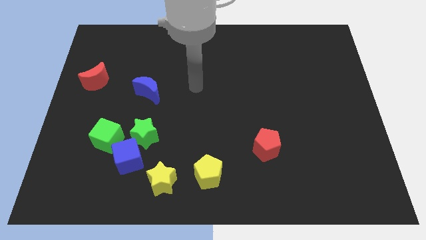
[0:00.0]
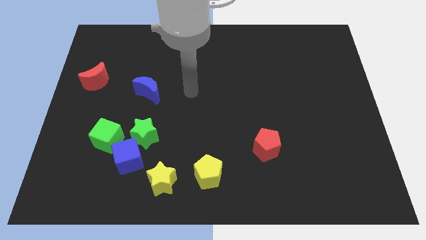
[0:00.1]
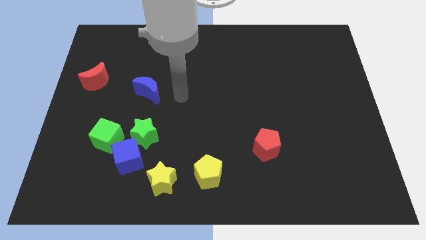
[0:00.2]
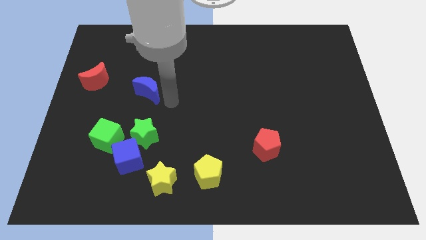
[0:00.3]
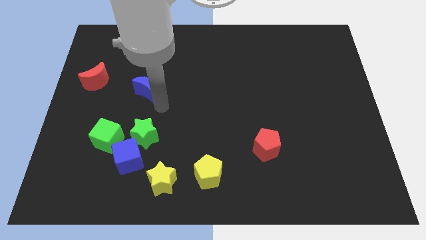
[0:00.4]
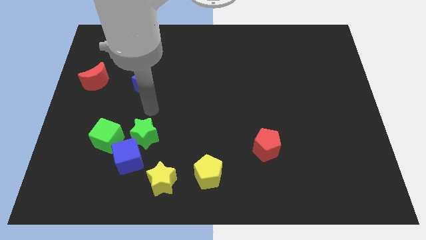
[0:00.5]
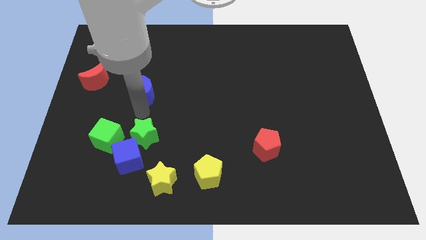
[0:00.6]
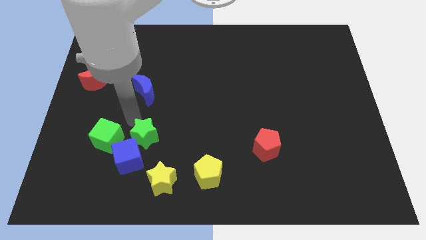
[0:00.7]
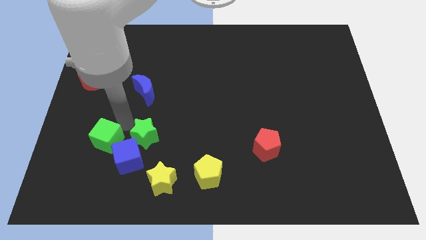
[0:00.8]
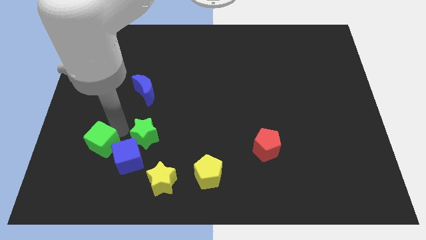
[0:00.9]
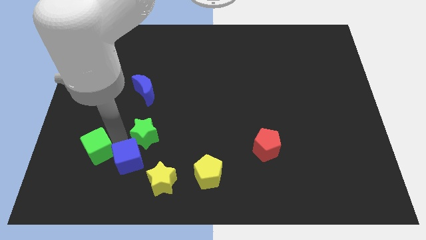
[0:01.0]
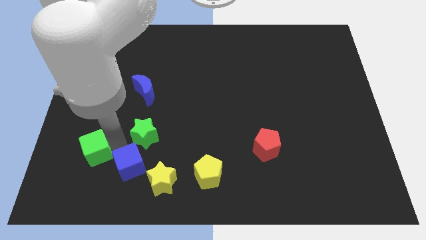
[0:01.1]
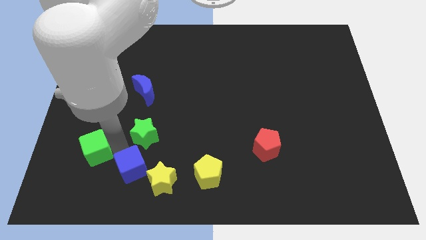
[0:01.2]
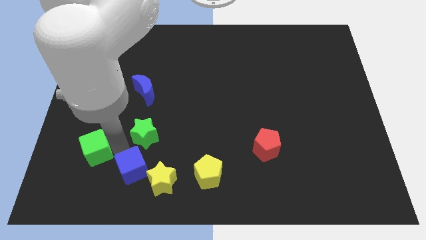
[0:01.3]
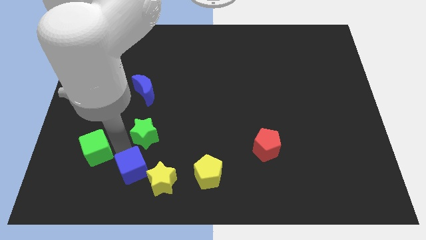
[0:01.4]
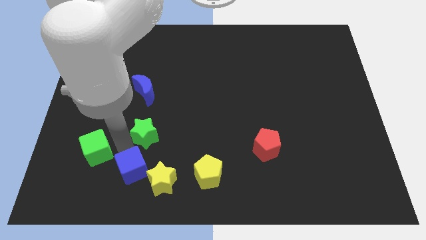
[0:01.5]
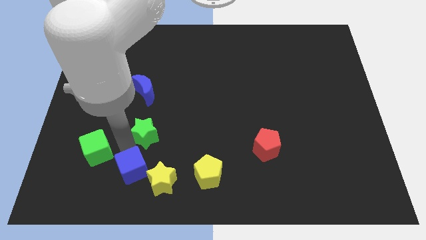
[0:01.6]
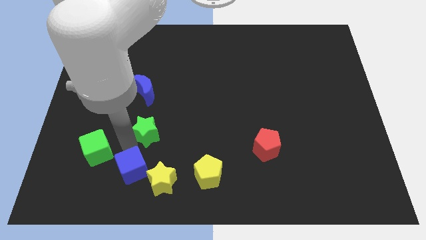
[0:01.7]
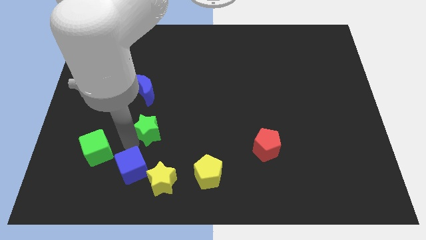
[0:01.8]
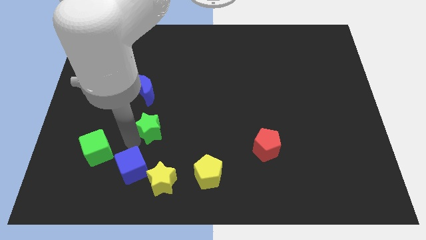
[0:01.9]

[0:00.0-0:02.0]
separate the green star from the blue cube and green cube

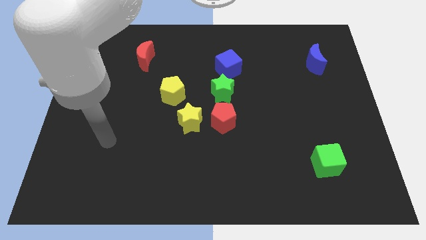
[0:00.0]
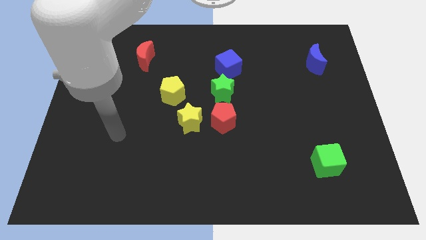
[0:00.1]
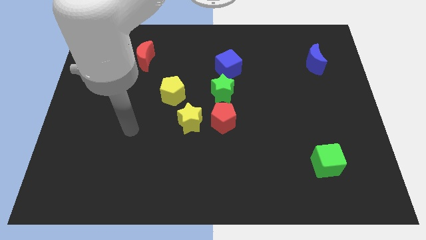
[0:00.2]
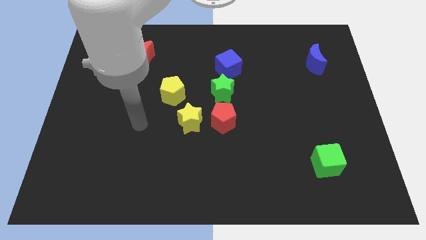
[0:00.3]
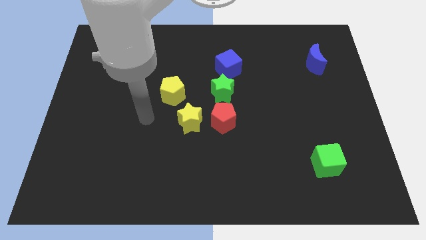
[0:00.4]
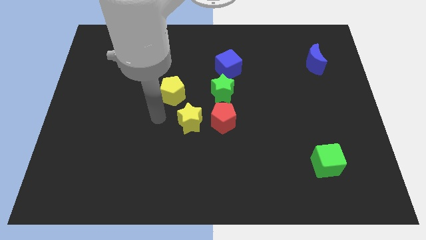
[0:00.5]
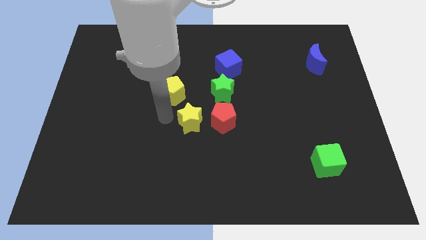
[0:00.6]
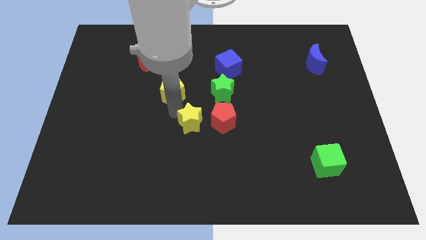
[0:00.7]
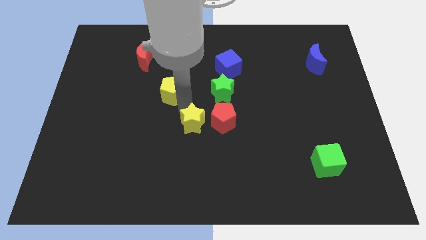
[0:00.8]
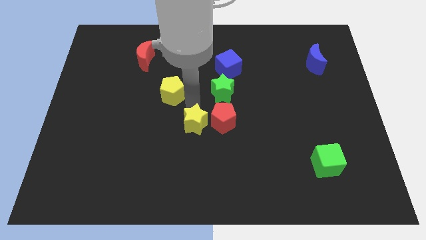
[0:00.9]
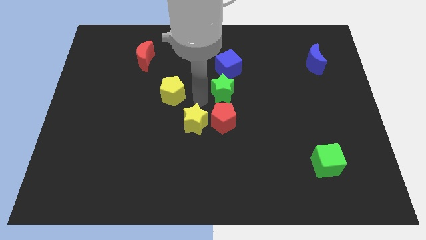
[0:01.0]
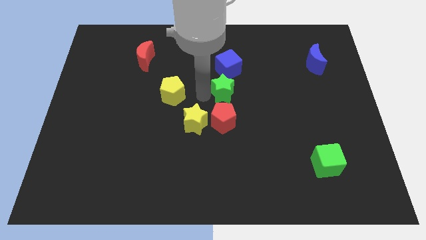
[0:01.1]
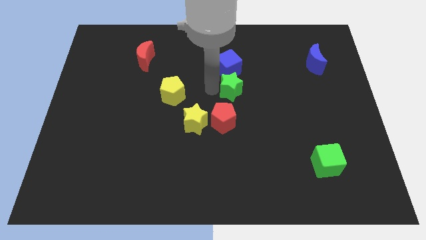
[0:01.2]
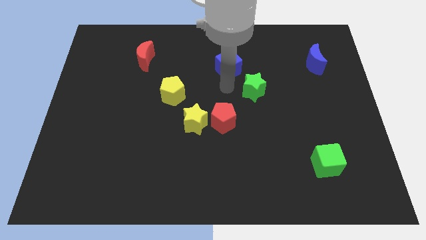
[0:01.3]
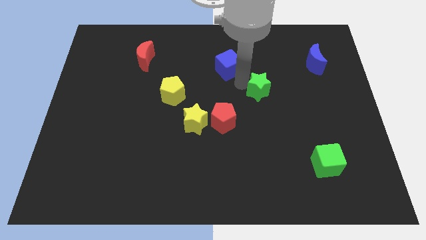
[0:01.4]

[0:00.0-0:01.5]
pull the blue cube apart from the green star

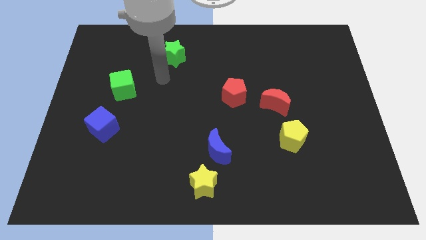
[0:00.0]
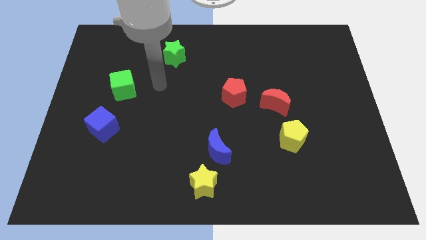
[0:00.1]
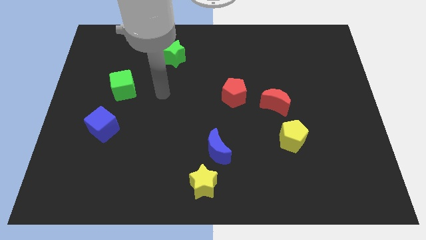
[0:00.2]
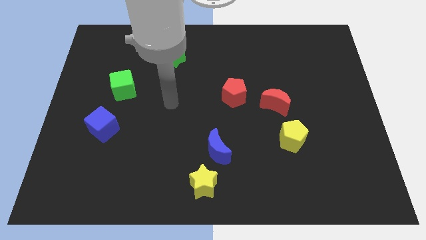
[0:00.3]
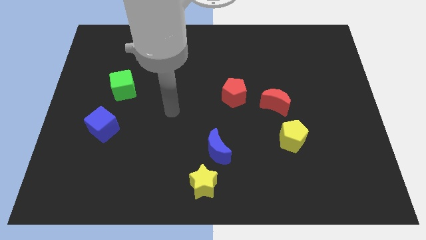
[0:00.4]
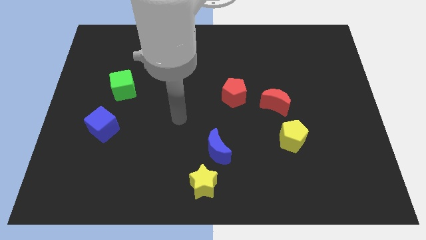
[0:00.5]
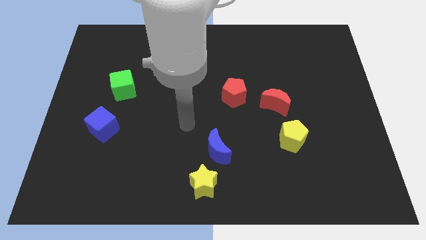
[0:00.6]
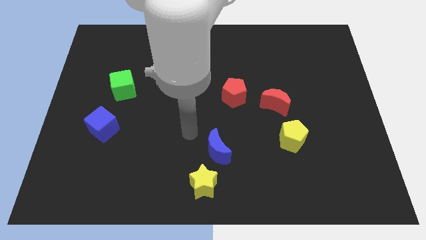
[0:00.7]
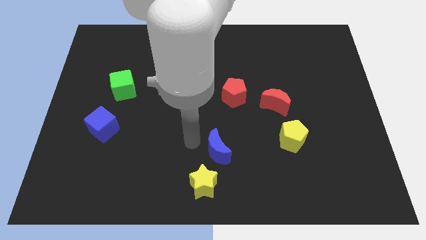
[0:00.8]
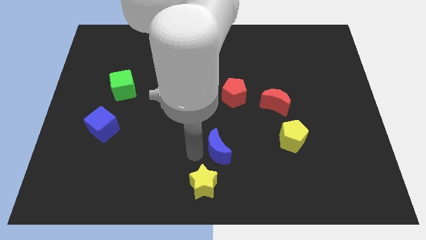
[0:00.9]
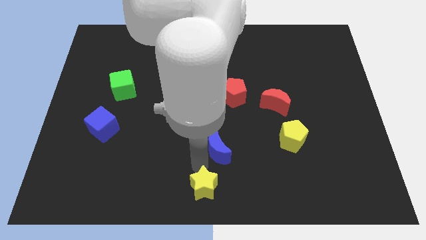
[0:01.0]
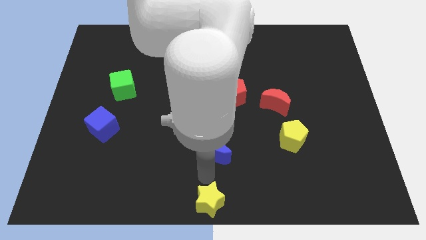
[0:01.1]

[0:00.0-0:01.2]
pull the blue moon apart from the yellow star

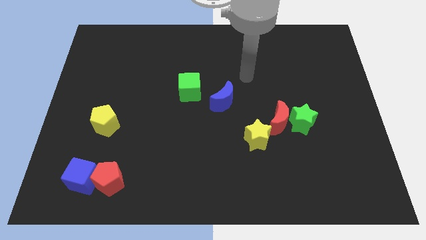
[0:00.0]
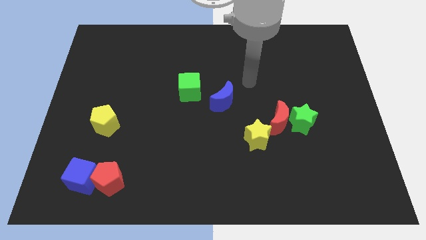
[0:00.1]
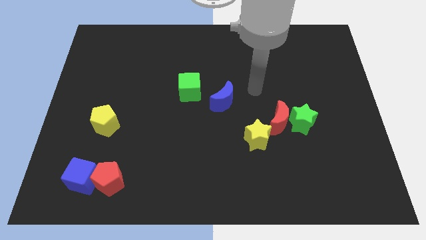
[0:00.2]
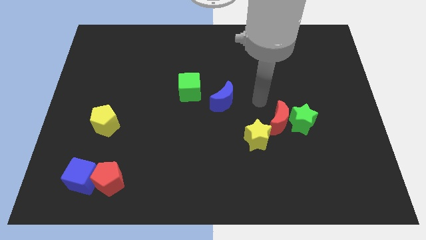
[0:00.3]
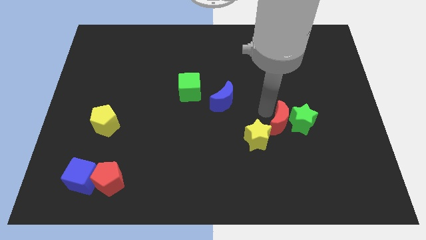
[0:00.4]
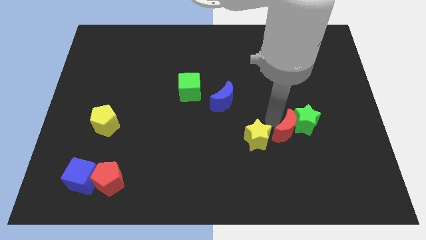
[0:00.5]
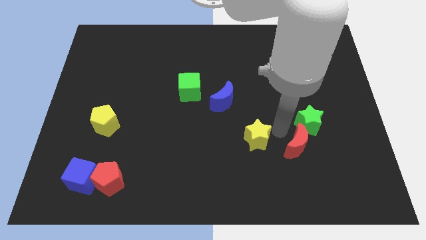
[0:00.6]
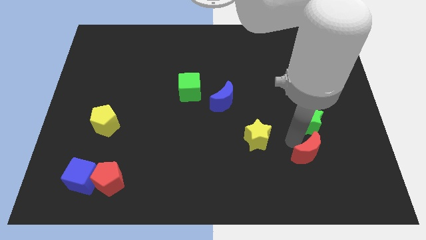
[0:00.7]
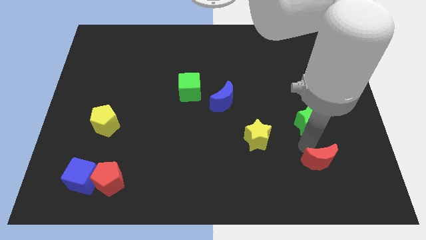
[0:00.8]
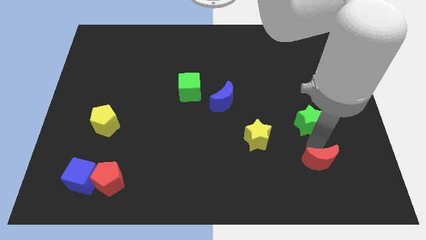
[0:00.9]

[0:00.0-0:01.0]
move the green star away from the red moon

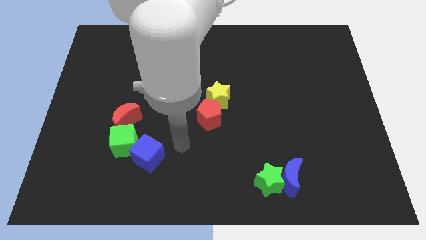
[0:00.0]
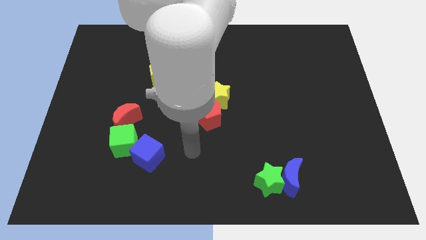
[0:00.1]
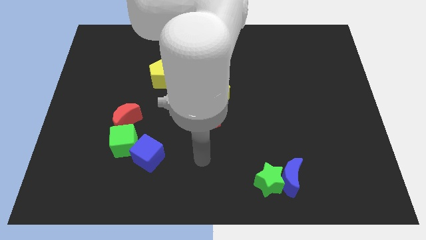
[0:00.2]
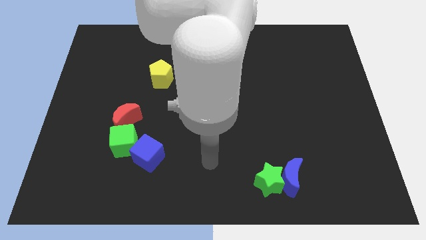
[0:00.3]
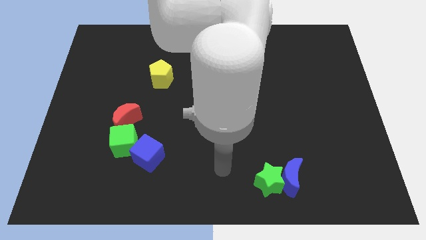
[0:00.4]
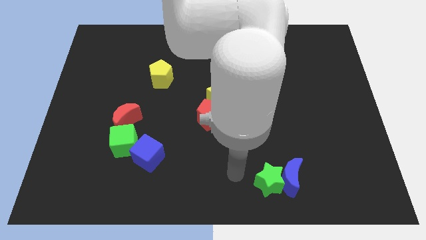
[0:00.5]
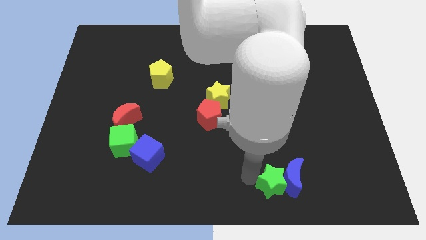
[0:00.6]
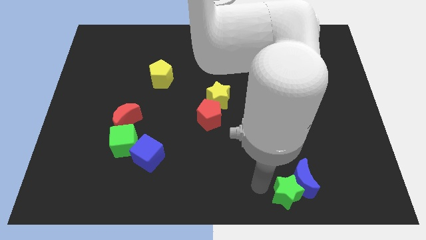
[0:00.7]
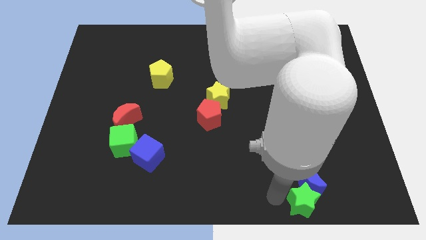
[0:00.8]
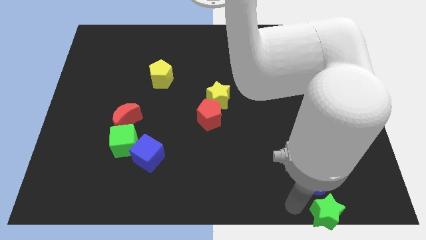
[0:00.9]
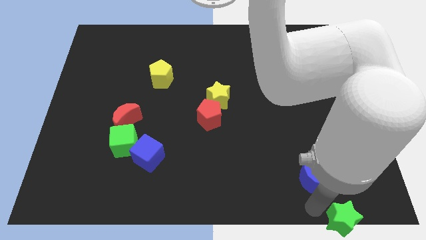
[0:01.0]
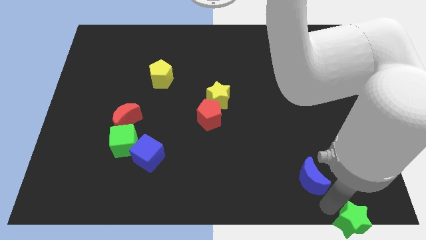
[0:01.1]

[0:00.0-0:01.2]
move the blue moon away from the green star

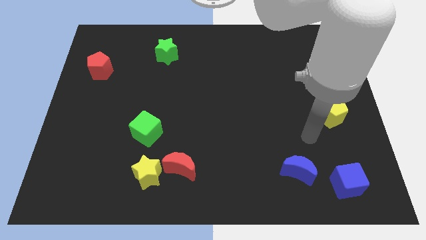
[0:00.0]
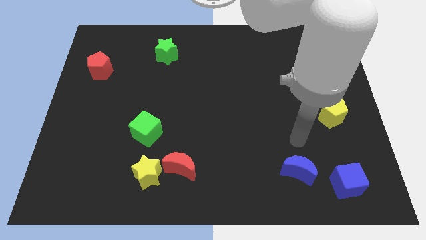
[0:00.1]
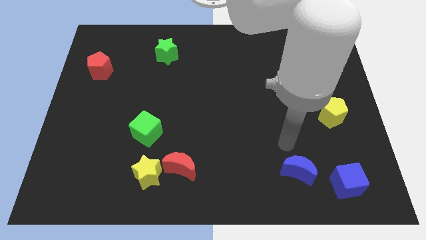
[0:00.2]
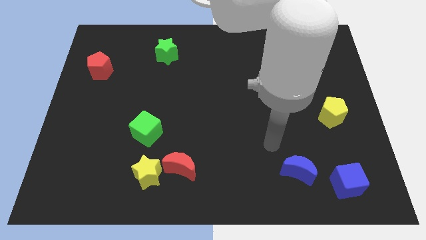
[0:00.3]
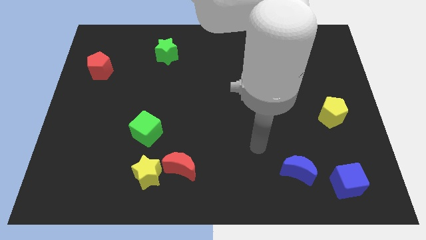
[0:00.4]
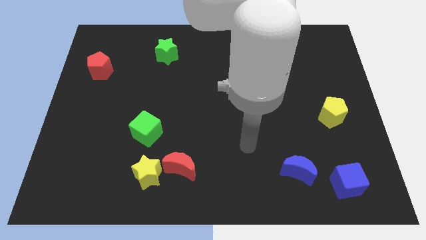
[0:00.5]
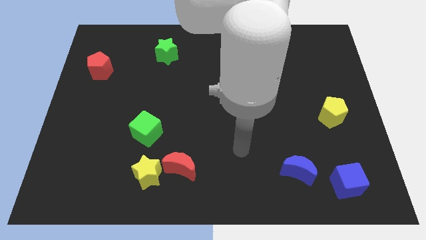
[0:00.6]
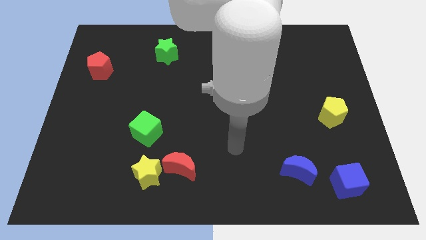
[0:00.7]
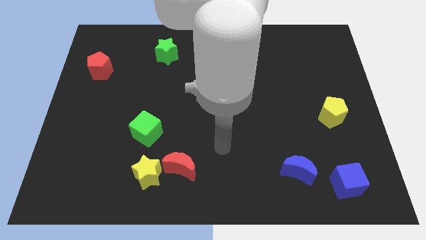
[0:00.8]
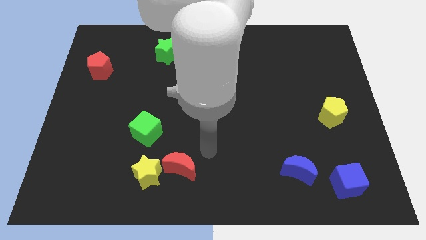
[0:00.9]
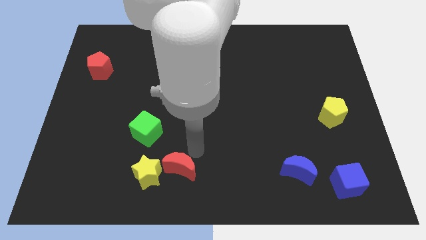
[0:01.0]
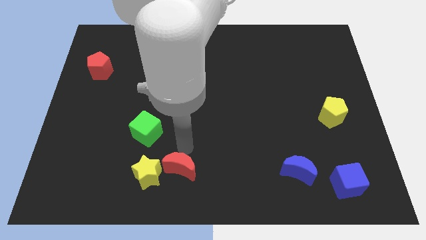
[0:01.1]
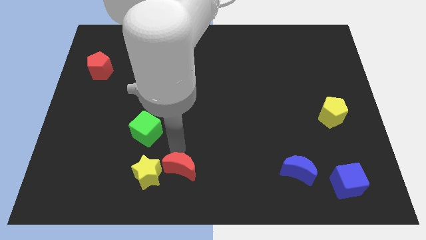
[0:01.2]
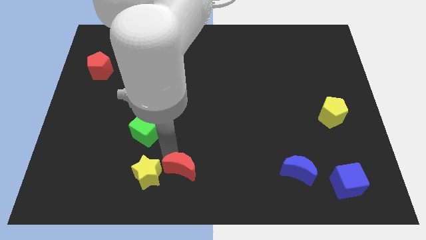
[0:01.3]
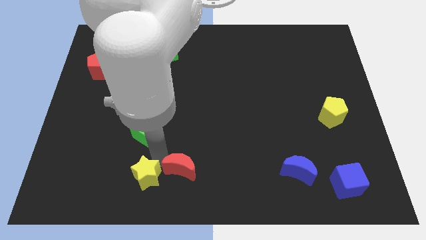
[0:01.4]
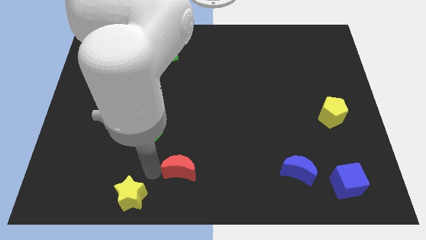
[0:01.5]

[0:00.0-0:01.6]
move the red moon away from the yellow star

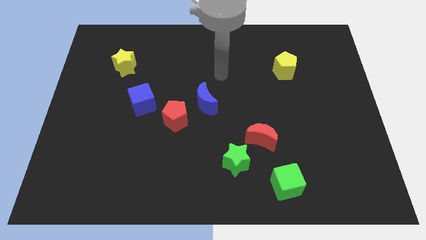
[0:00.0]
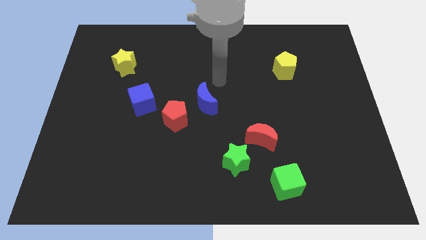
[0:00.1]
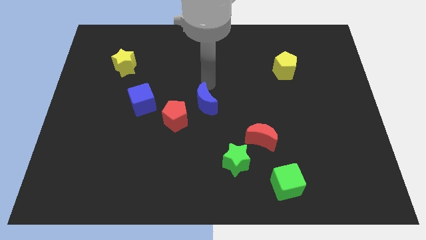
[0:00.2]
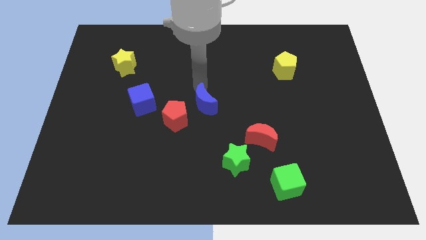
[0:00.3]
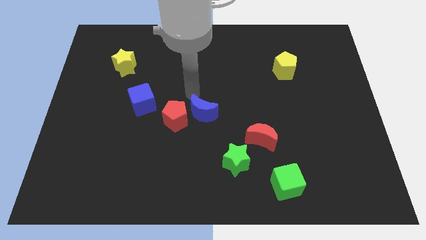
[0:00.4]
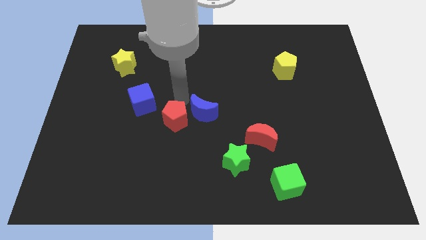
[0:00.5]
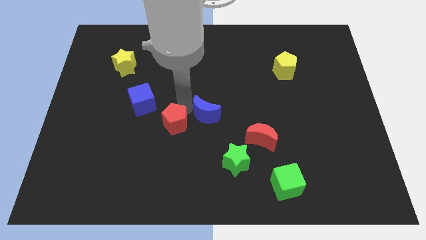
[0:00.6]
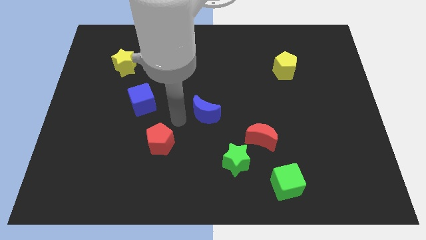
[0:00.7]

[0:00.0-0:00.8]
move the blue moon away from the red pentagon
